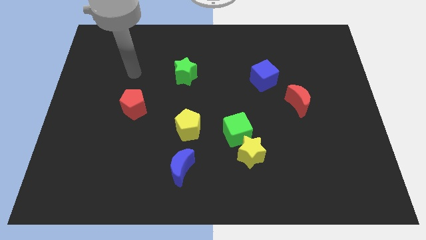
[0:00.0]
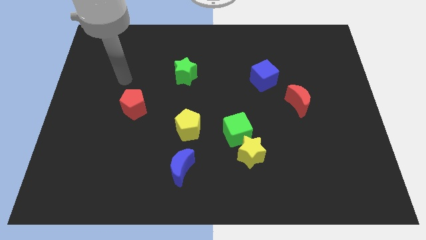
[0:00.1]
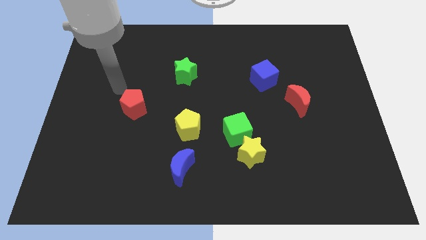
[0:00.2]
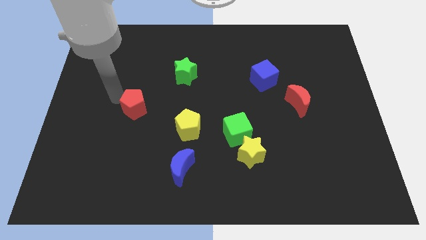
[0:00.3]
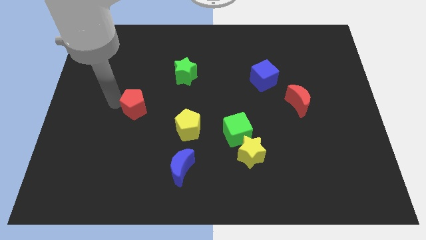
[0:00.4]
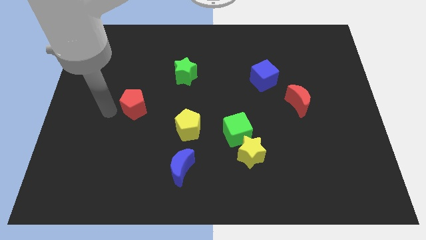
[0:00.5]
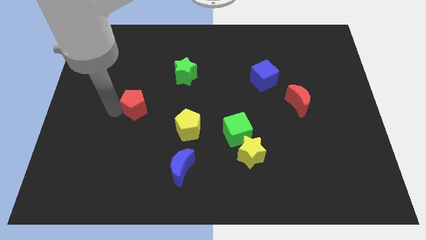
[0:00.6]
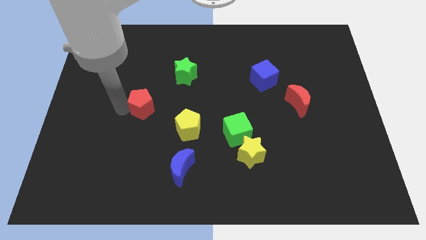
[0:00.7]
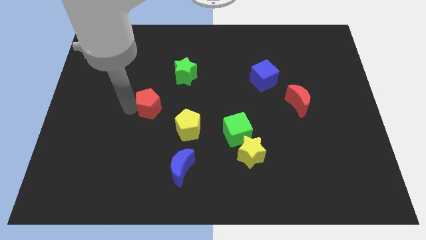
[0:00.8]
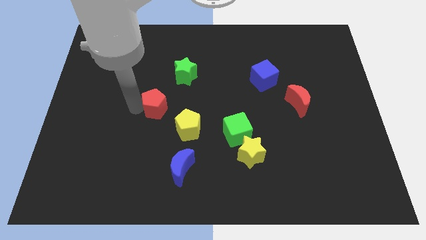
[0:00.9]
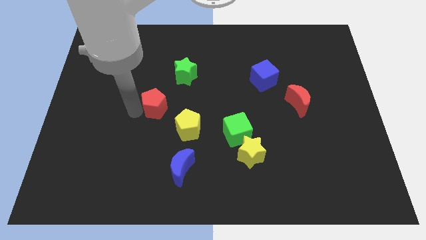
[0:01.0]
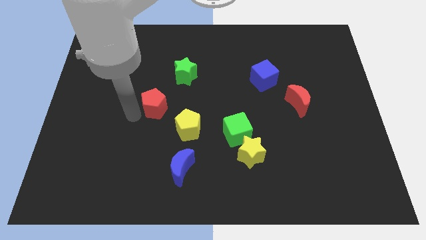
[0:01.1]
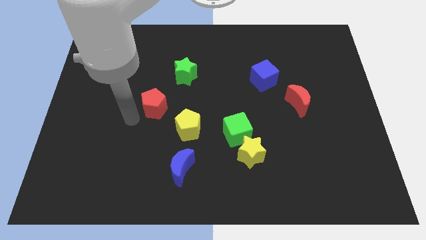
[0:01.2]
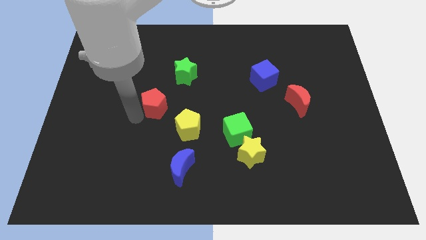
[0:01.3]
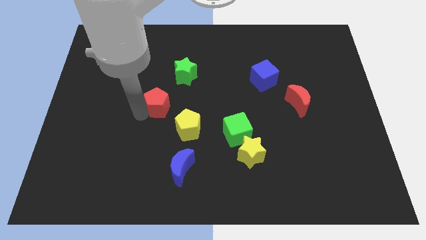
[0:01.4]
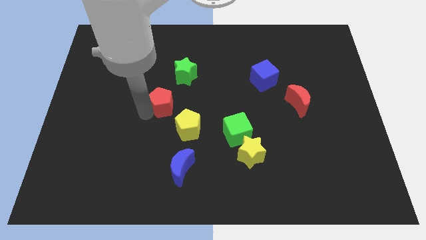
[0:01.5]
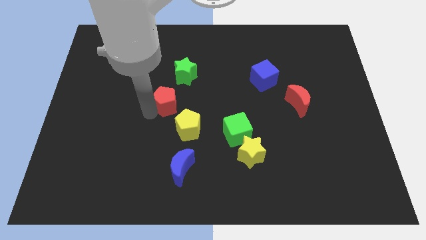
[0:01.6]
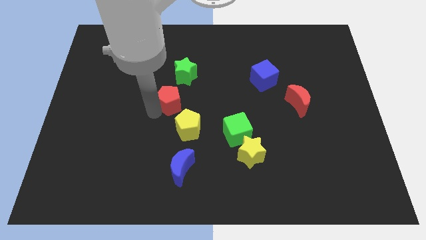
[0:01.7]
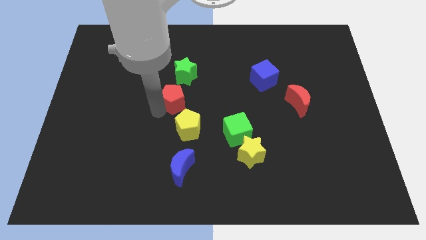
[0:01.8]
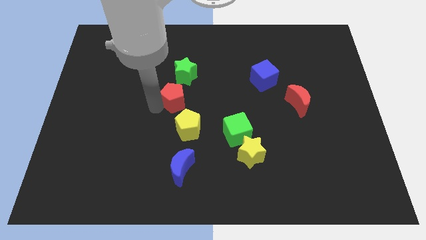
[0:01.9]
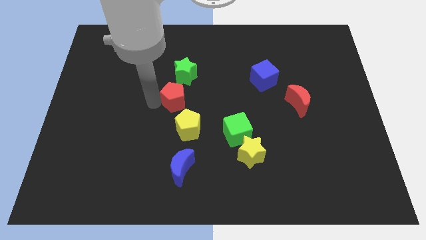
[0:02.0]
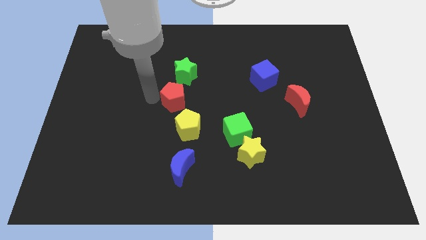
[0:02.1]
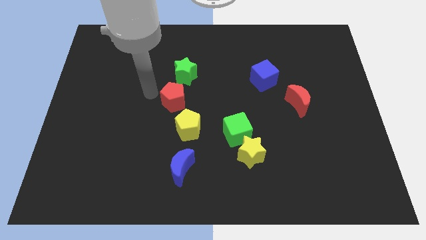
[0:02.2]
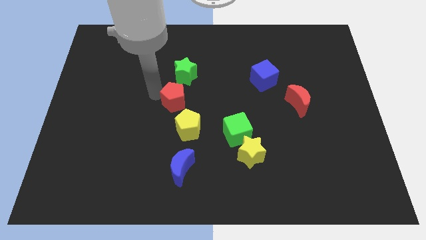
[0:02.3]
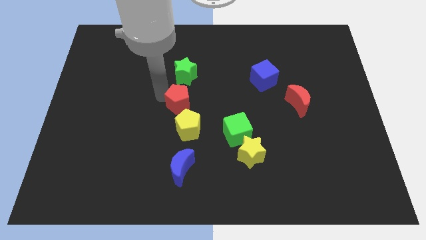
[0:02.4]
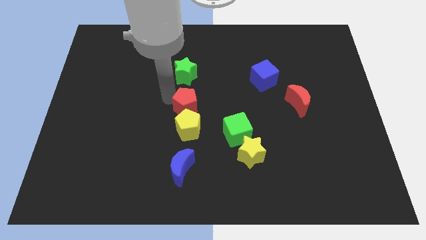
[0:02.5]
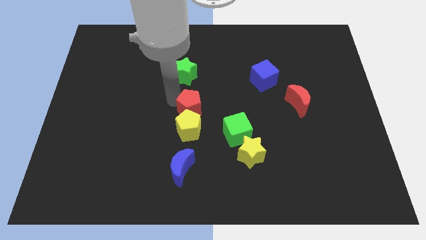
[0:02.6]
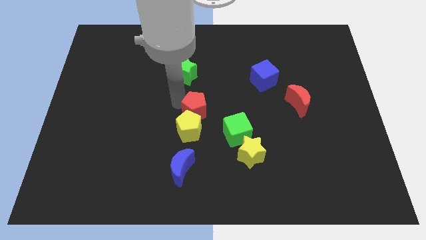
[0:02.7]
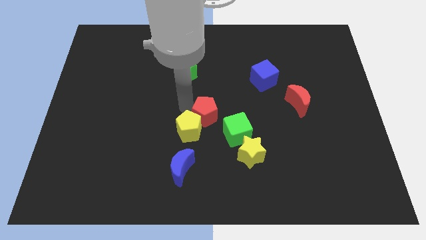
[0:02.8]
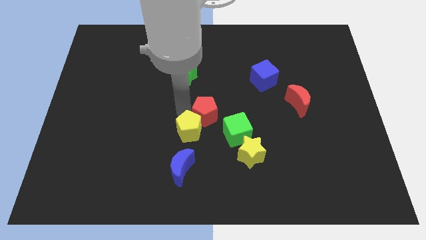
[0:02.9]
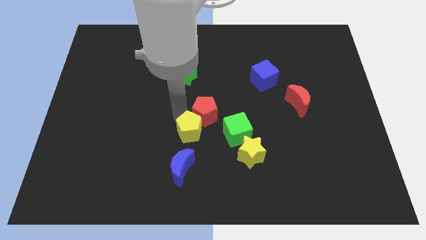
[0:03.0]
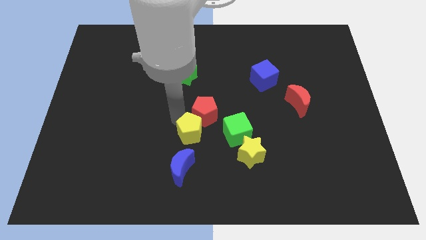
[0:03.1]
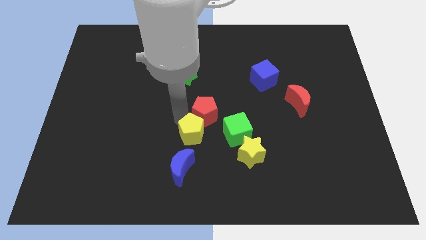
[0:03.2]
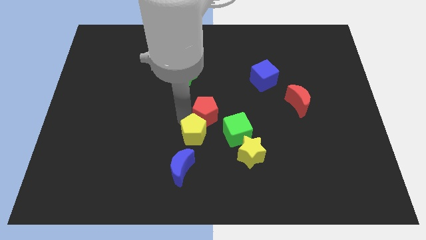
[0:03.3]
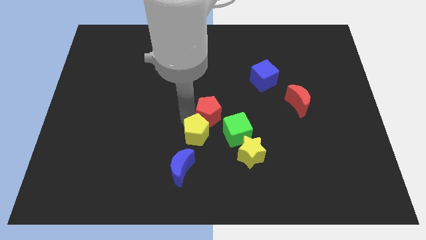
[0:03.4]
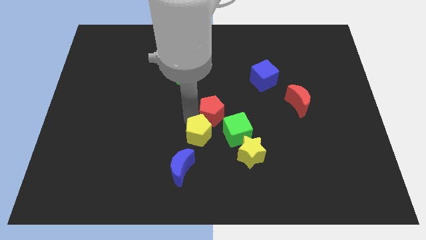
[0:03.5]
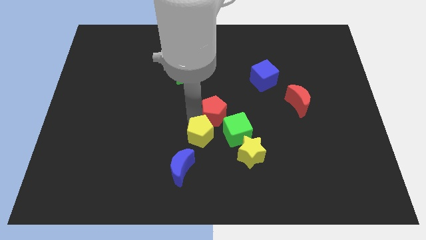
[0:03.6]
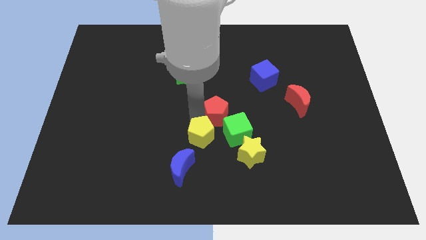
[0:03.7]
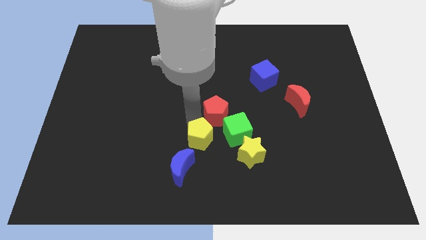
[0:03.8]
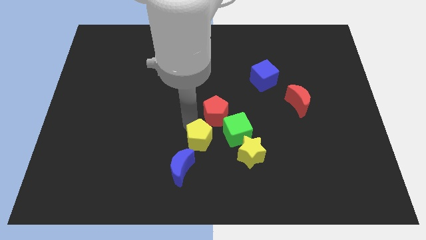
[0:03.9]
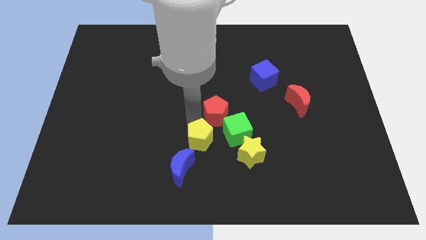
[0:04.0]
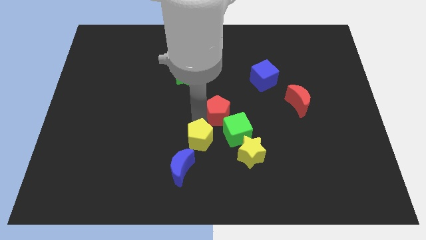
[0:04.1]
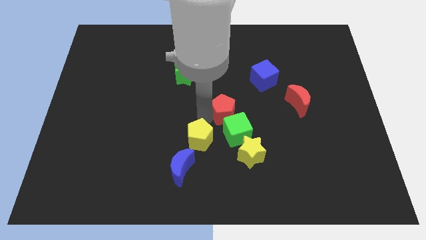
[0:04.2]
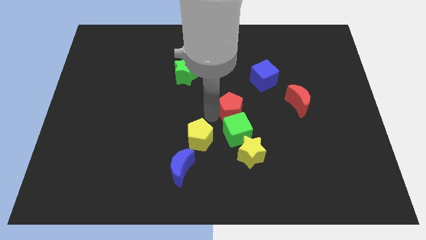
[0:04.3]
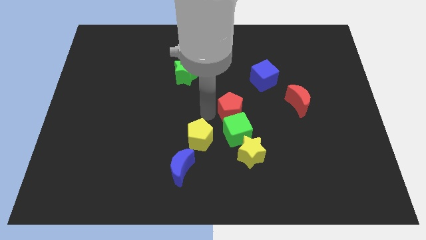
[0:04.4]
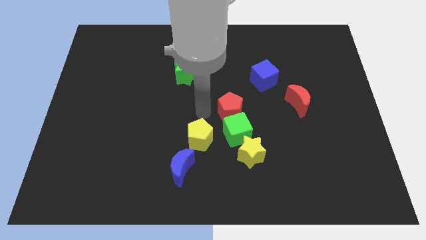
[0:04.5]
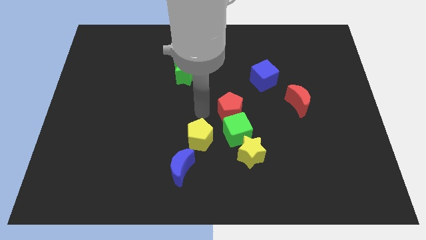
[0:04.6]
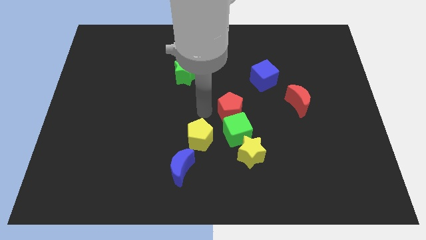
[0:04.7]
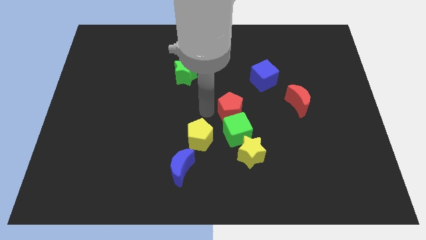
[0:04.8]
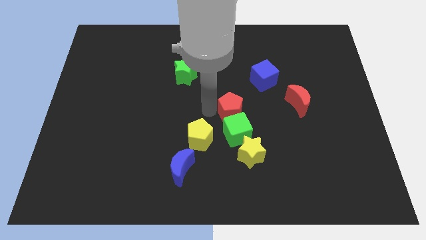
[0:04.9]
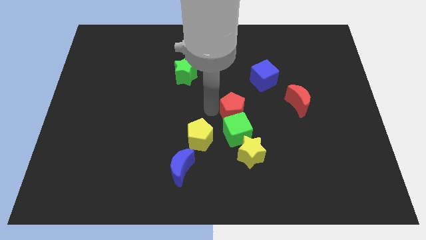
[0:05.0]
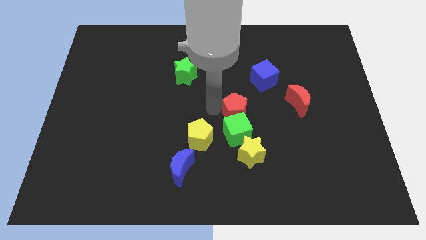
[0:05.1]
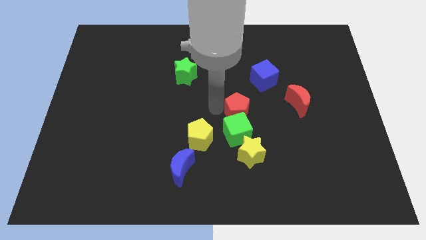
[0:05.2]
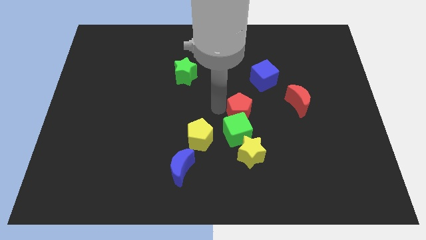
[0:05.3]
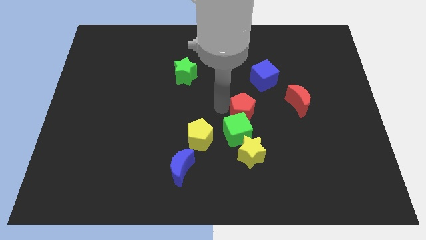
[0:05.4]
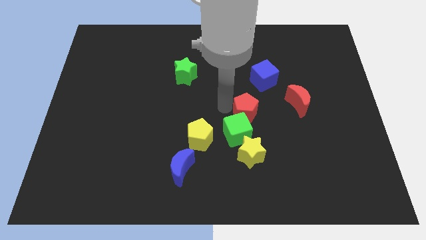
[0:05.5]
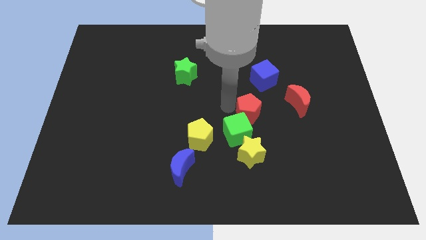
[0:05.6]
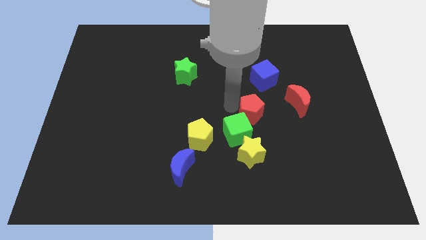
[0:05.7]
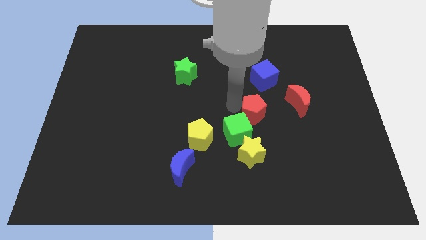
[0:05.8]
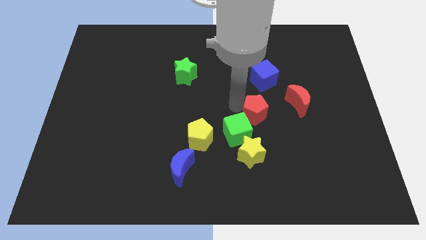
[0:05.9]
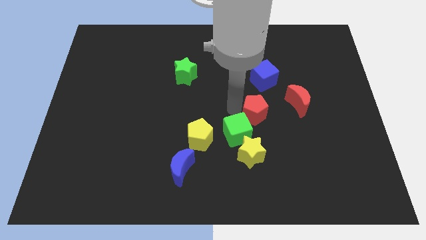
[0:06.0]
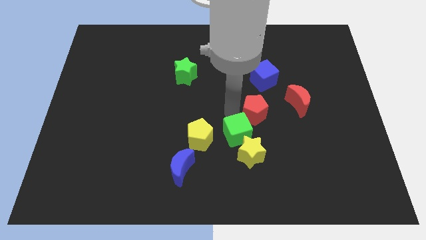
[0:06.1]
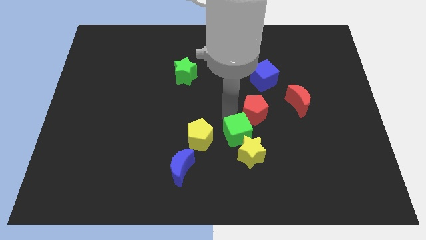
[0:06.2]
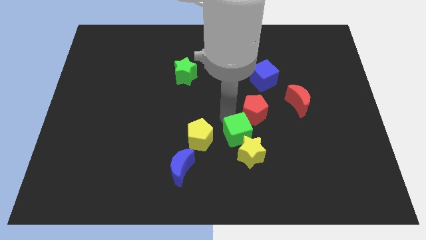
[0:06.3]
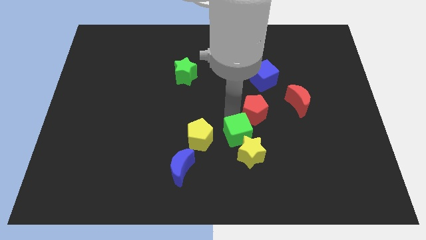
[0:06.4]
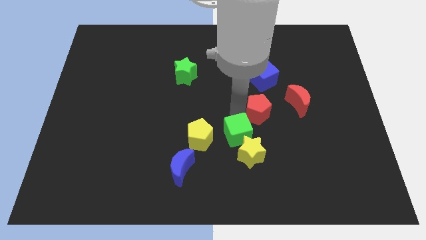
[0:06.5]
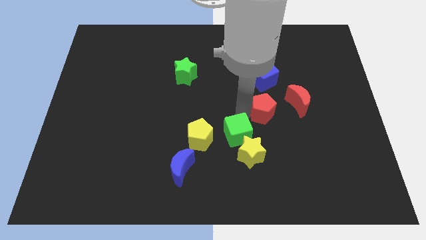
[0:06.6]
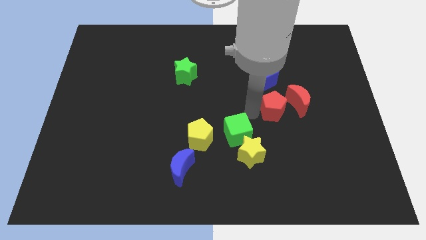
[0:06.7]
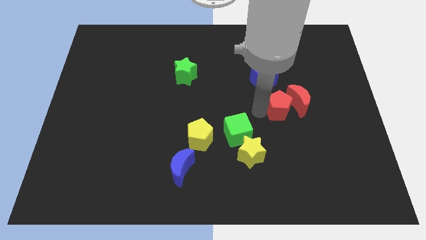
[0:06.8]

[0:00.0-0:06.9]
slide the red pentagon to the red moon
